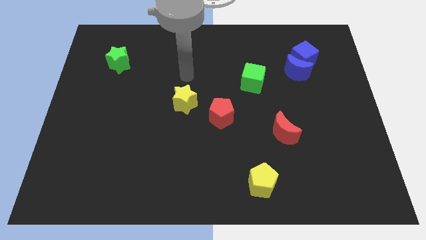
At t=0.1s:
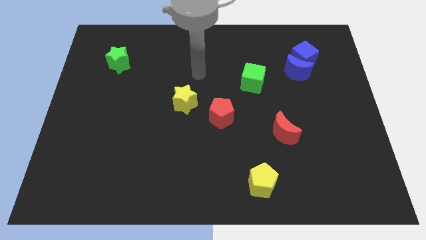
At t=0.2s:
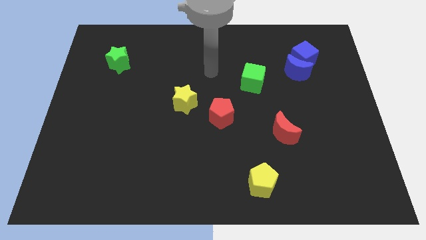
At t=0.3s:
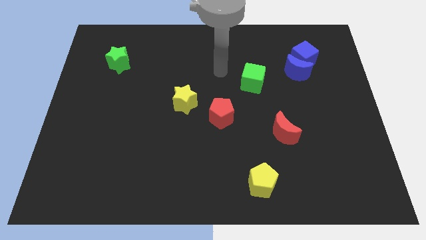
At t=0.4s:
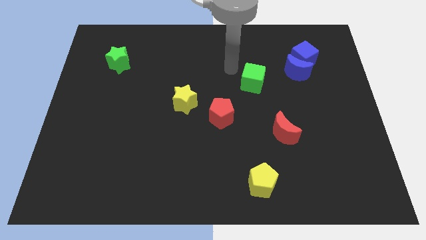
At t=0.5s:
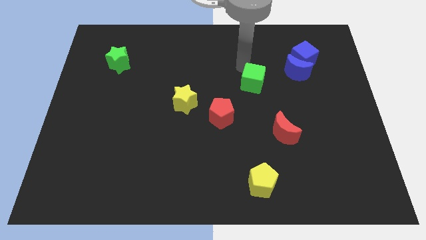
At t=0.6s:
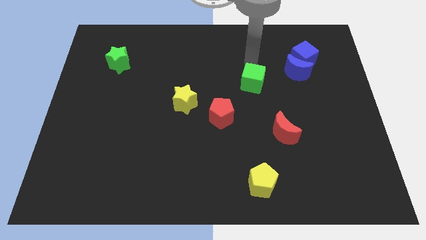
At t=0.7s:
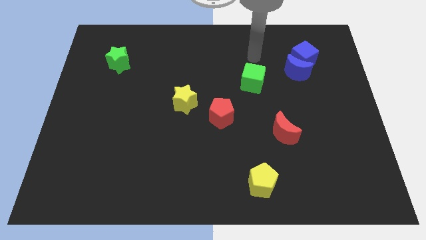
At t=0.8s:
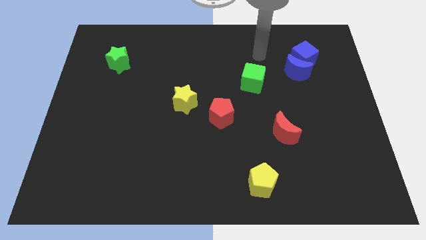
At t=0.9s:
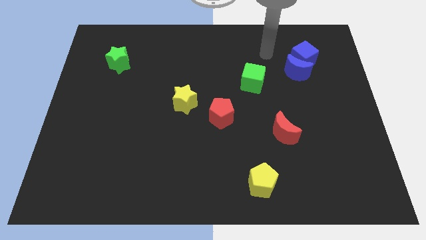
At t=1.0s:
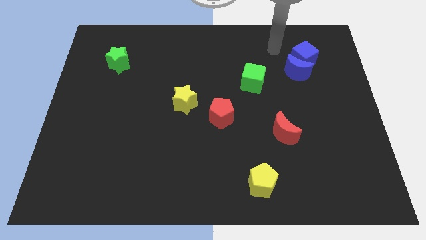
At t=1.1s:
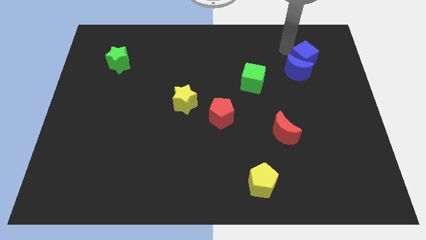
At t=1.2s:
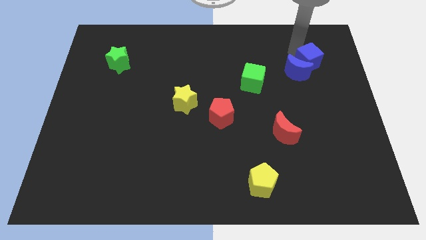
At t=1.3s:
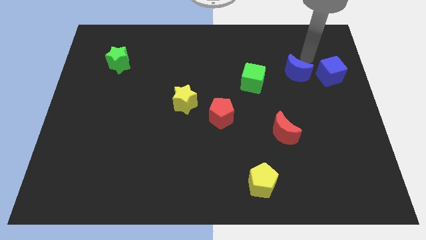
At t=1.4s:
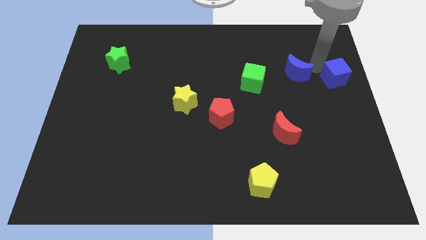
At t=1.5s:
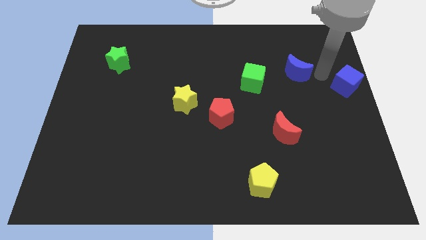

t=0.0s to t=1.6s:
move the blue moon away from the blue cube

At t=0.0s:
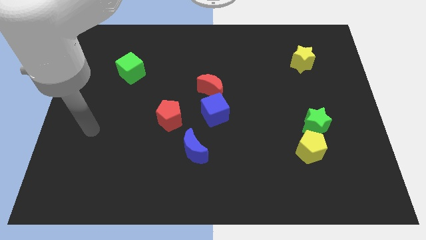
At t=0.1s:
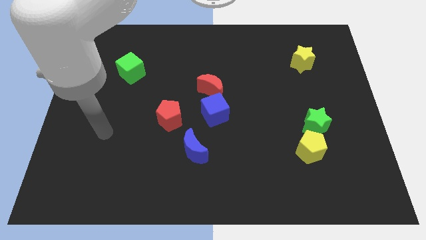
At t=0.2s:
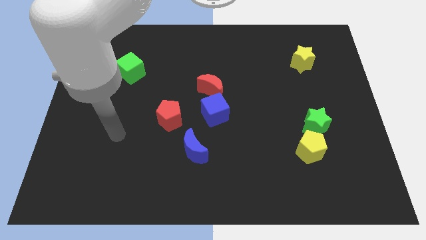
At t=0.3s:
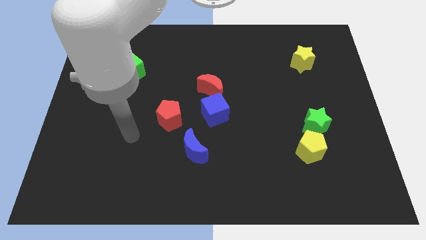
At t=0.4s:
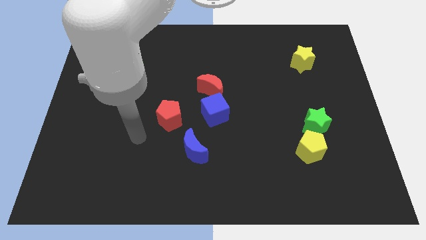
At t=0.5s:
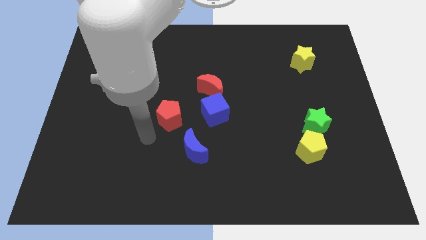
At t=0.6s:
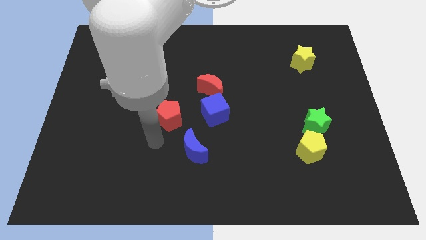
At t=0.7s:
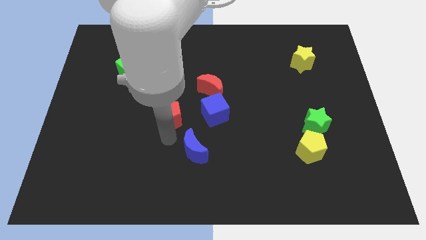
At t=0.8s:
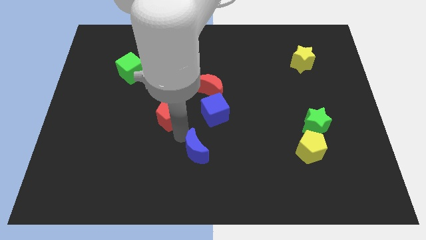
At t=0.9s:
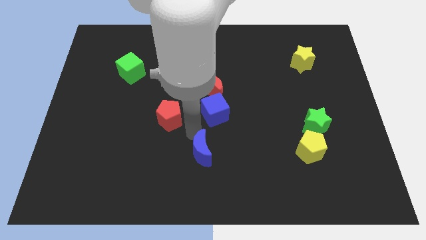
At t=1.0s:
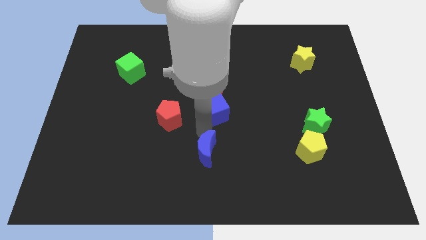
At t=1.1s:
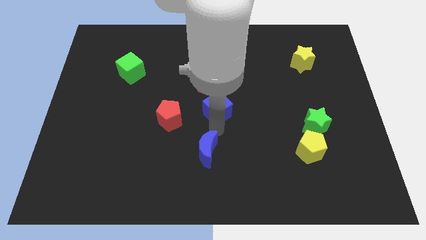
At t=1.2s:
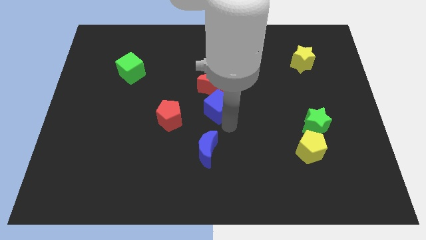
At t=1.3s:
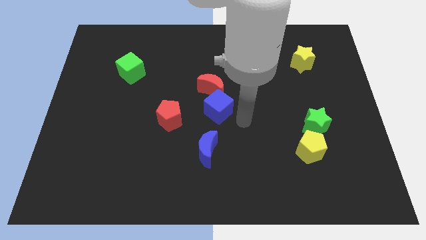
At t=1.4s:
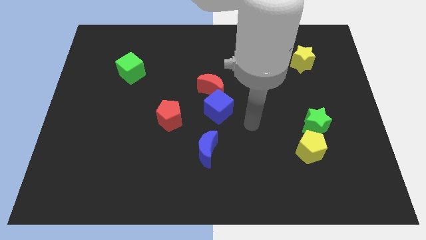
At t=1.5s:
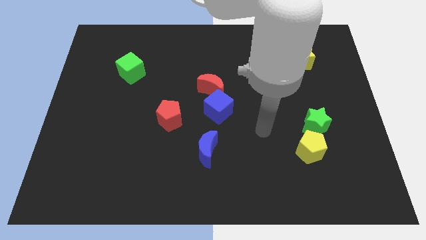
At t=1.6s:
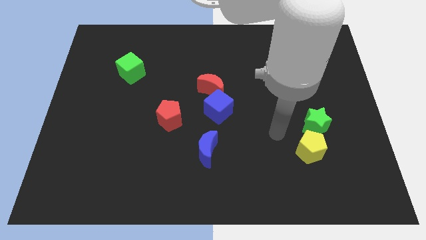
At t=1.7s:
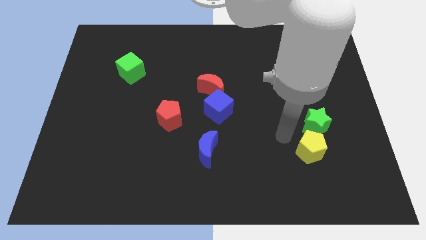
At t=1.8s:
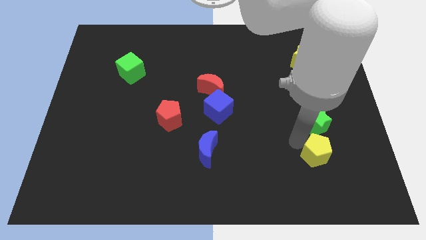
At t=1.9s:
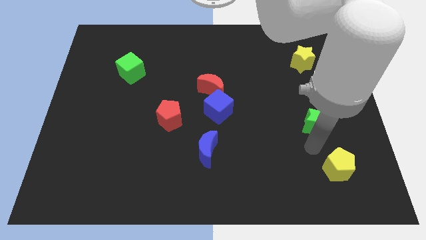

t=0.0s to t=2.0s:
separate the green star from the yellow pentagon

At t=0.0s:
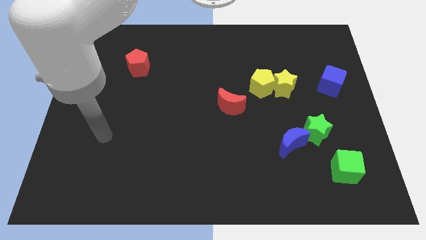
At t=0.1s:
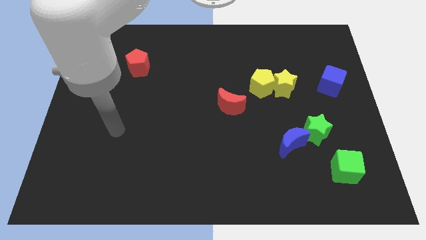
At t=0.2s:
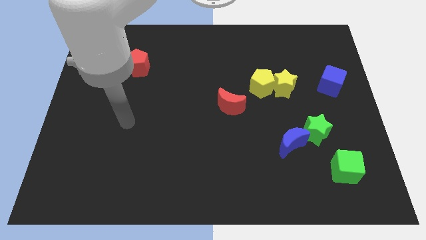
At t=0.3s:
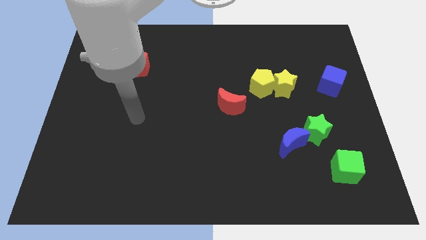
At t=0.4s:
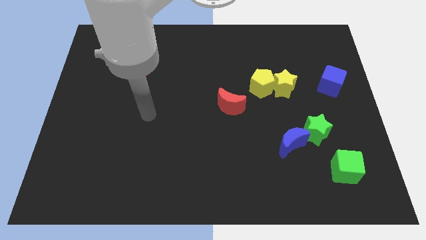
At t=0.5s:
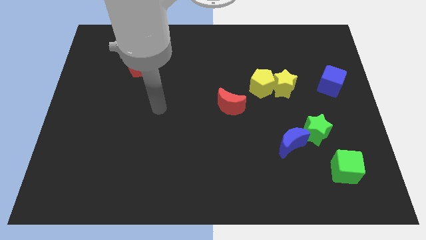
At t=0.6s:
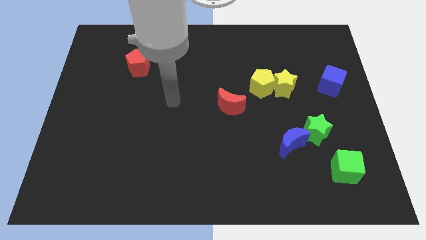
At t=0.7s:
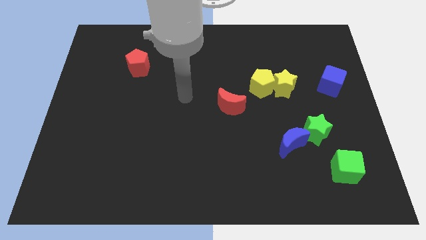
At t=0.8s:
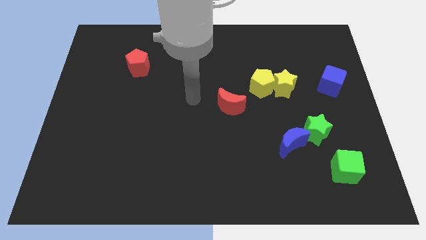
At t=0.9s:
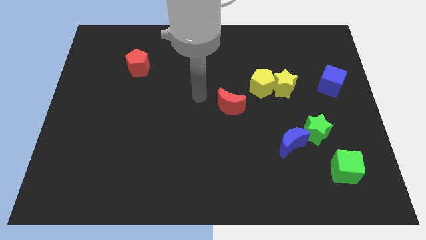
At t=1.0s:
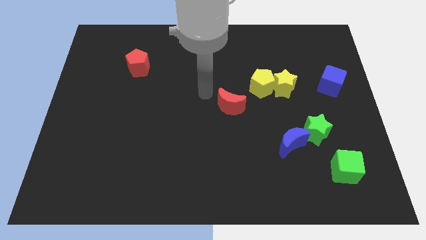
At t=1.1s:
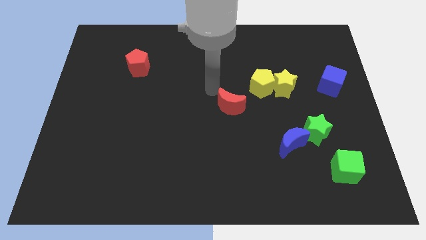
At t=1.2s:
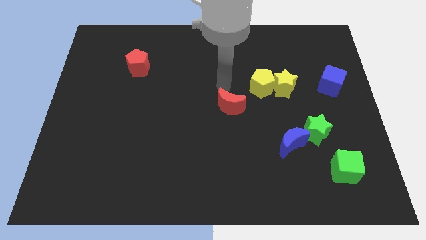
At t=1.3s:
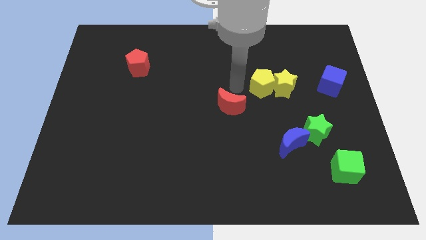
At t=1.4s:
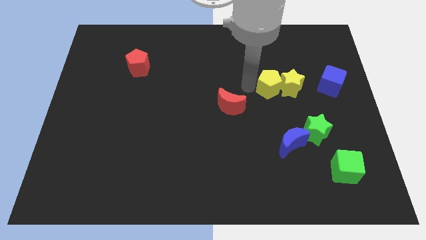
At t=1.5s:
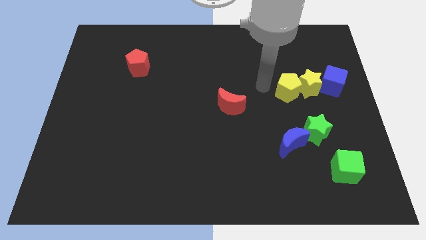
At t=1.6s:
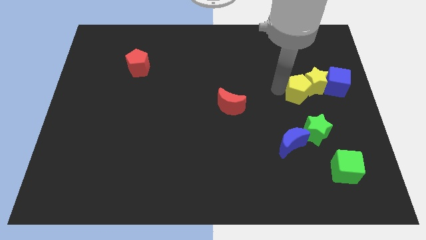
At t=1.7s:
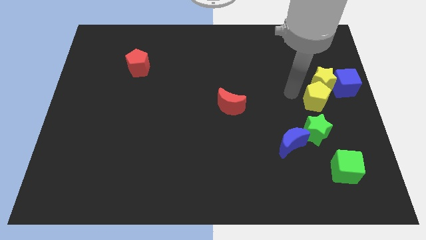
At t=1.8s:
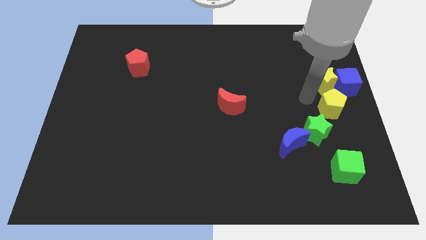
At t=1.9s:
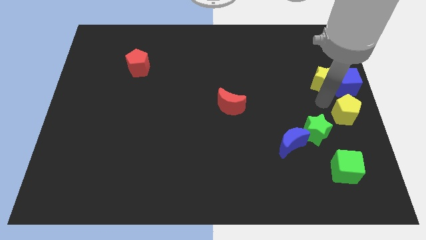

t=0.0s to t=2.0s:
separate the yellow star from the yellow pentagon

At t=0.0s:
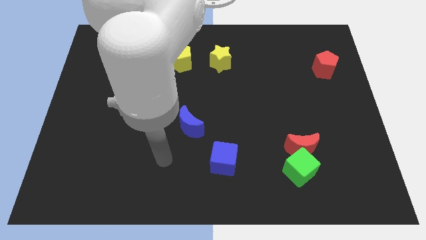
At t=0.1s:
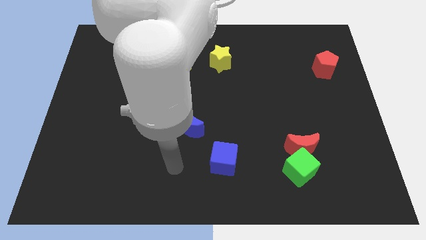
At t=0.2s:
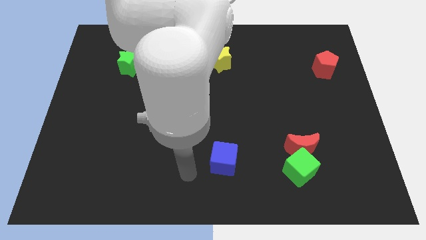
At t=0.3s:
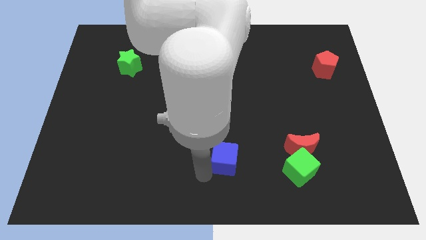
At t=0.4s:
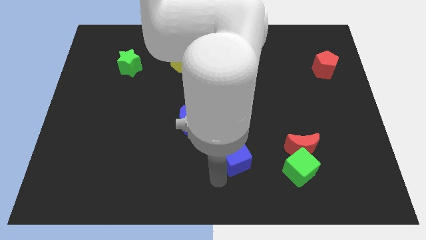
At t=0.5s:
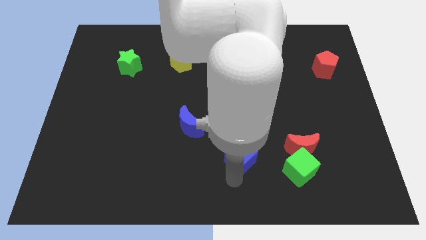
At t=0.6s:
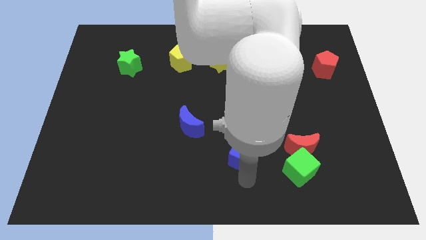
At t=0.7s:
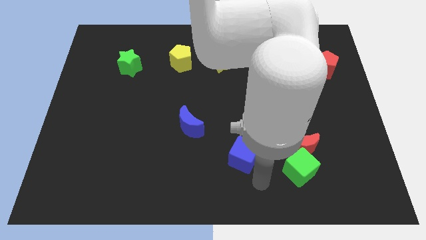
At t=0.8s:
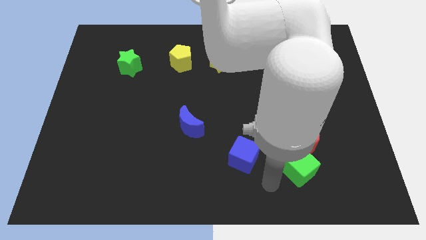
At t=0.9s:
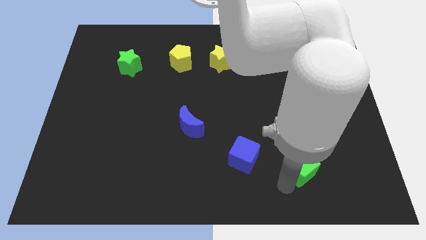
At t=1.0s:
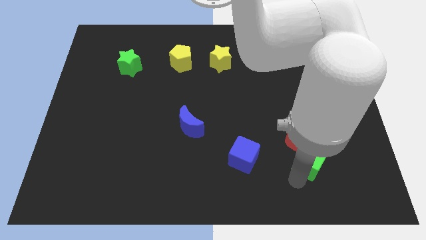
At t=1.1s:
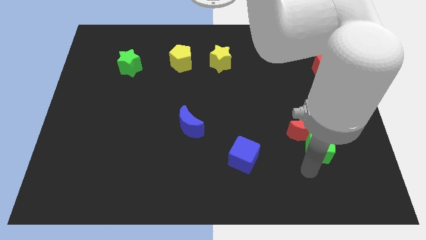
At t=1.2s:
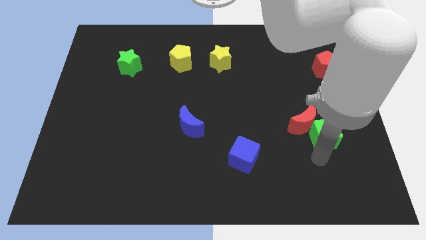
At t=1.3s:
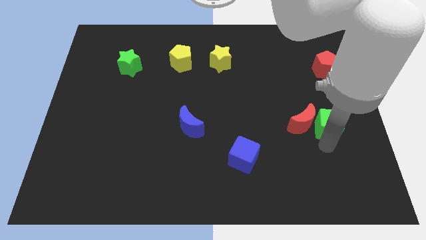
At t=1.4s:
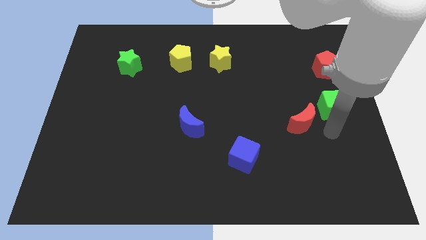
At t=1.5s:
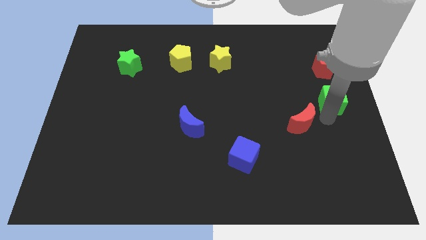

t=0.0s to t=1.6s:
separate the red moon from the green cube

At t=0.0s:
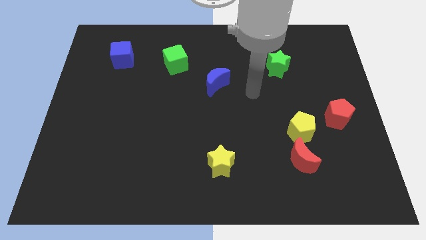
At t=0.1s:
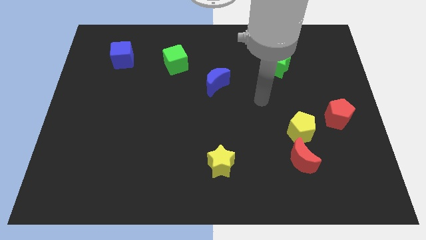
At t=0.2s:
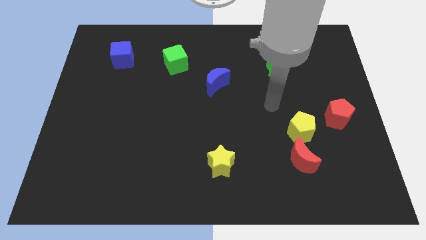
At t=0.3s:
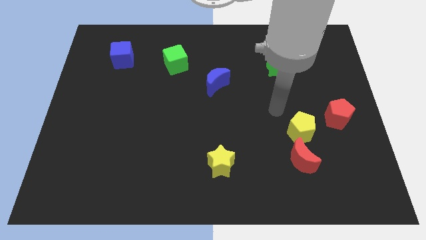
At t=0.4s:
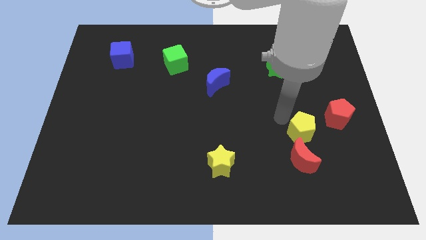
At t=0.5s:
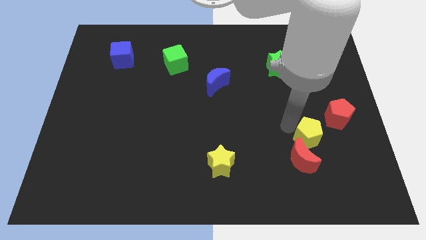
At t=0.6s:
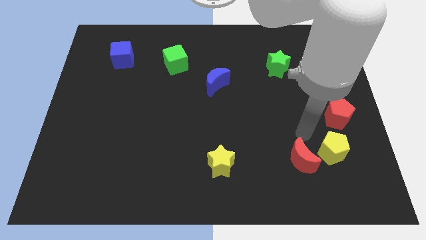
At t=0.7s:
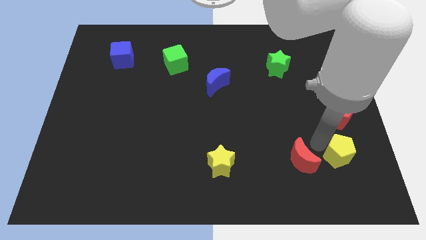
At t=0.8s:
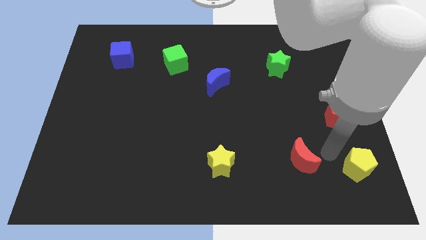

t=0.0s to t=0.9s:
pull the red moon apart from the yellow pentagon

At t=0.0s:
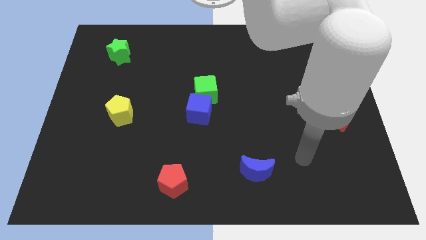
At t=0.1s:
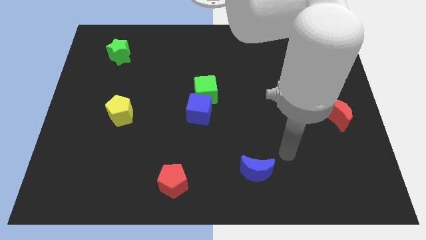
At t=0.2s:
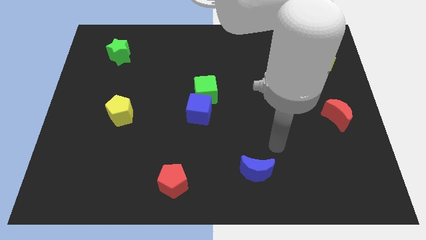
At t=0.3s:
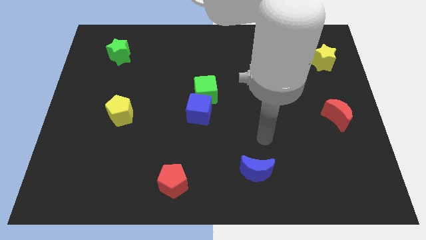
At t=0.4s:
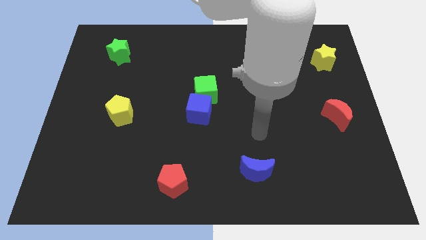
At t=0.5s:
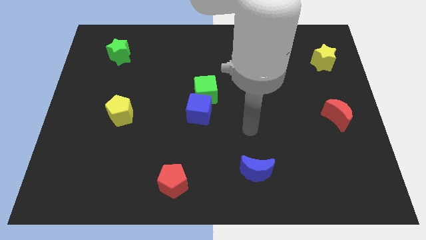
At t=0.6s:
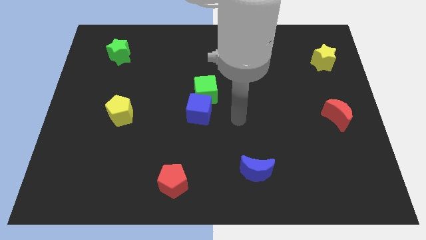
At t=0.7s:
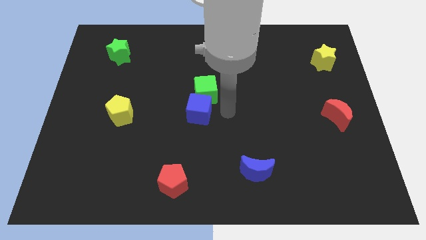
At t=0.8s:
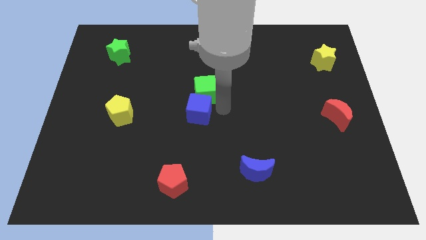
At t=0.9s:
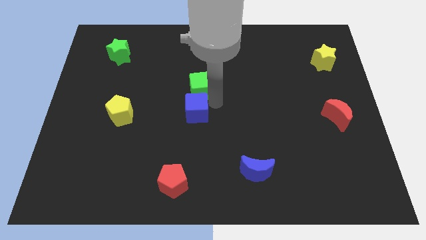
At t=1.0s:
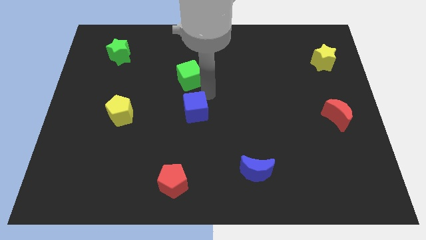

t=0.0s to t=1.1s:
pull the blue cube apart from the green cube

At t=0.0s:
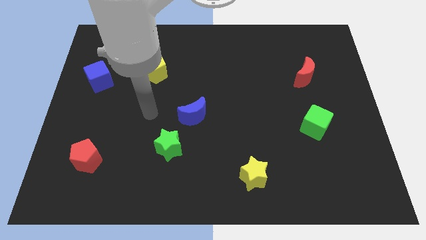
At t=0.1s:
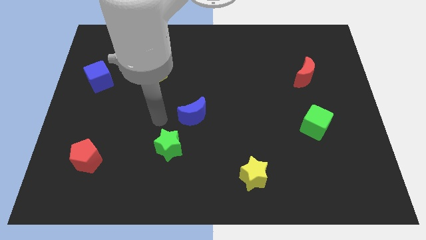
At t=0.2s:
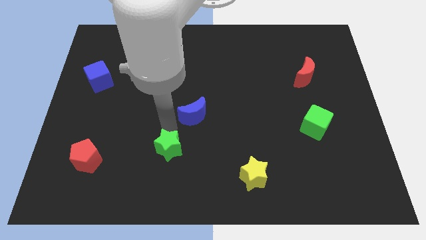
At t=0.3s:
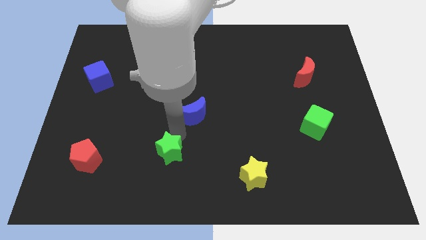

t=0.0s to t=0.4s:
separate the blue moon from the green star
